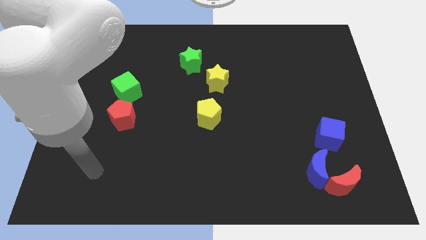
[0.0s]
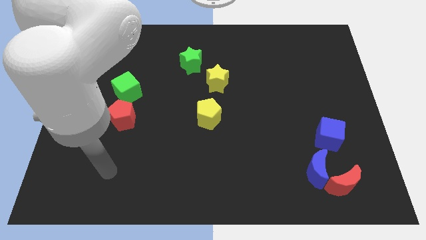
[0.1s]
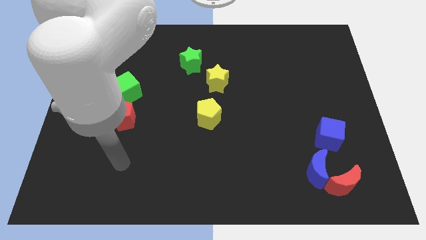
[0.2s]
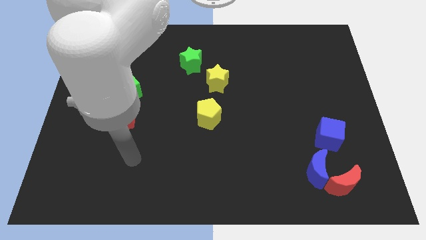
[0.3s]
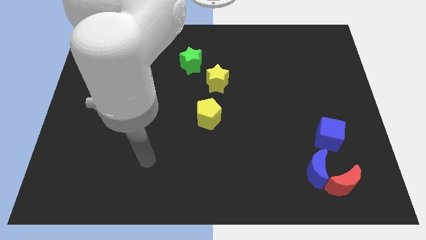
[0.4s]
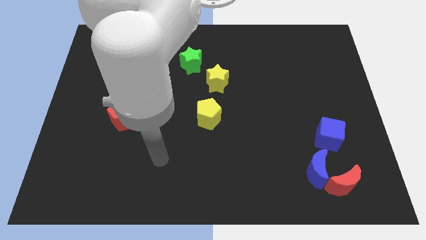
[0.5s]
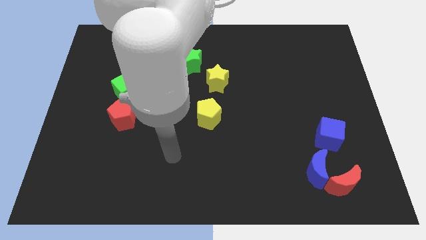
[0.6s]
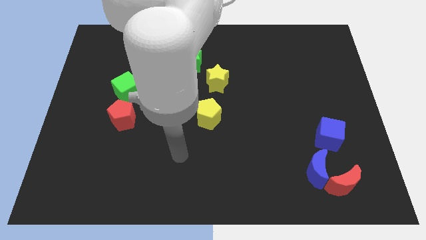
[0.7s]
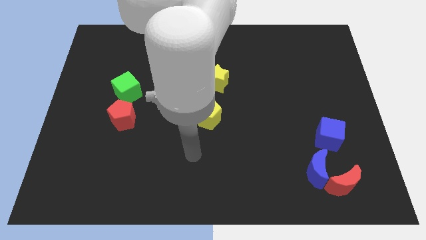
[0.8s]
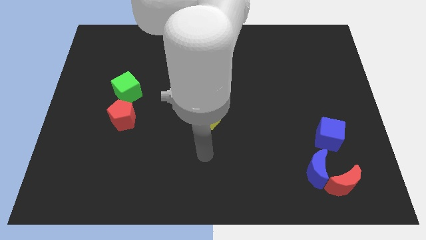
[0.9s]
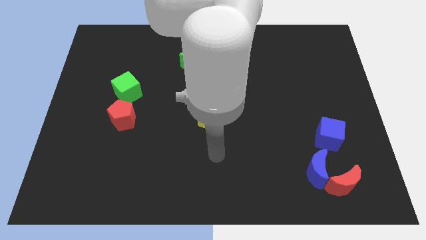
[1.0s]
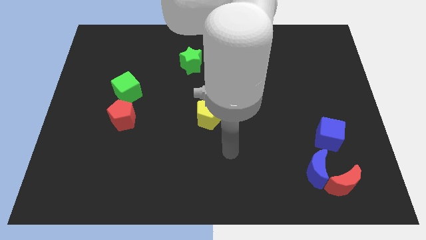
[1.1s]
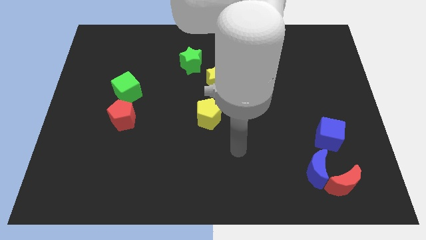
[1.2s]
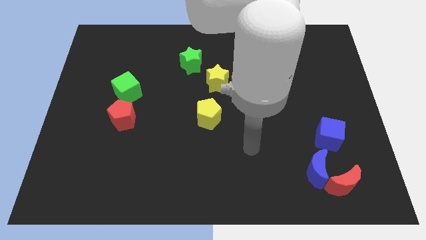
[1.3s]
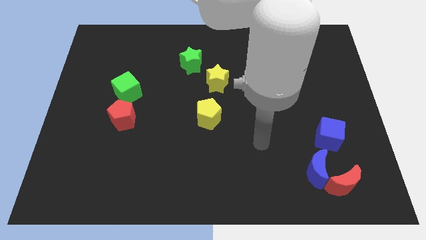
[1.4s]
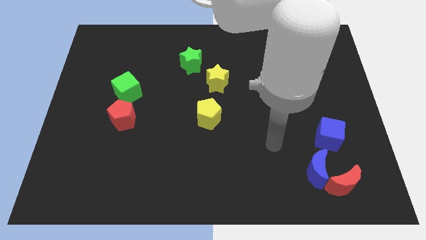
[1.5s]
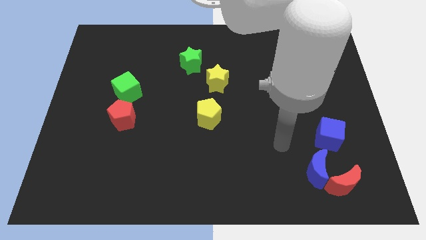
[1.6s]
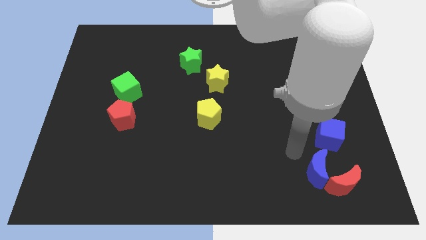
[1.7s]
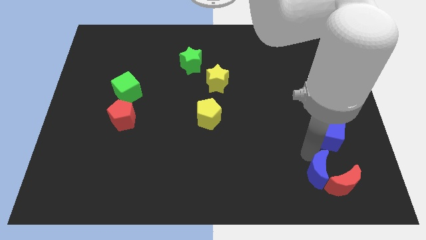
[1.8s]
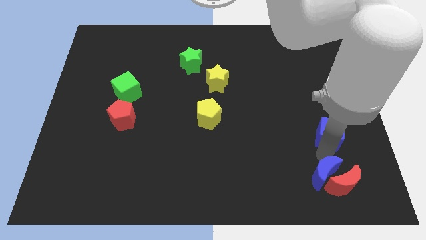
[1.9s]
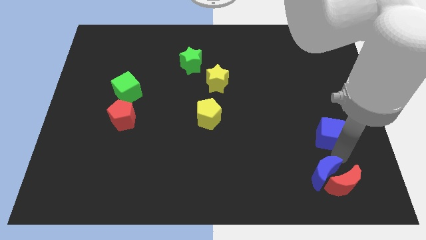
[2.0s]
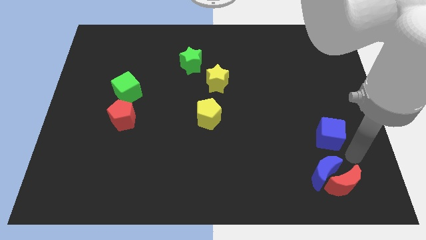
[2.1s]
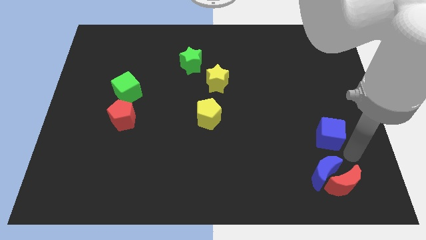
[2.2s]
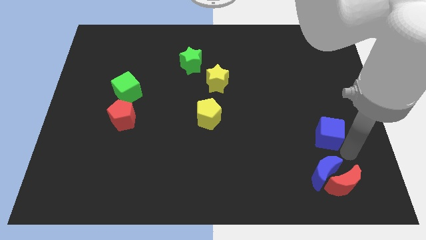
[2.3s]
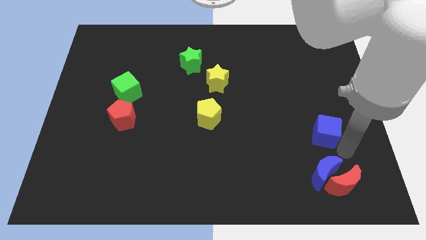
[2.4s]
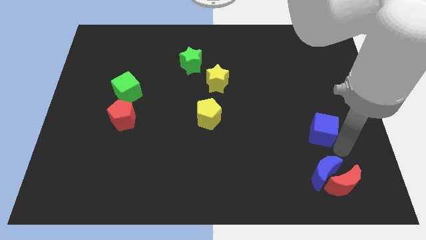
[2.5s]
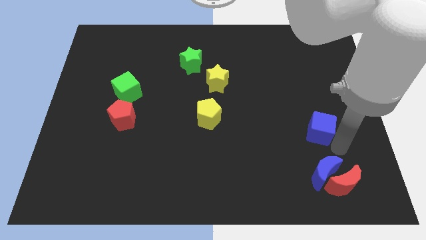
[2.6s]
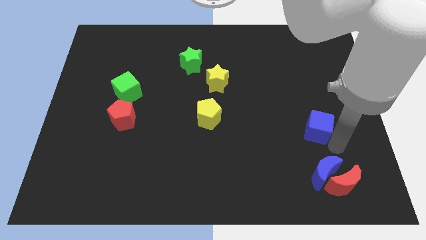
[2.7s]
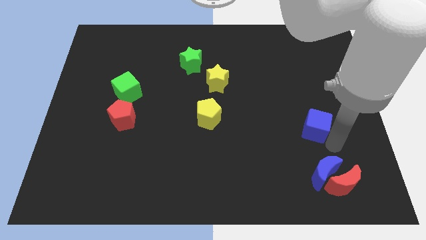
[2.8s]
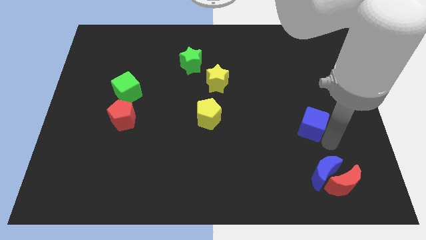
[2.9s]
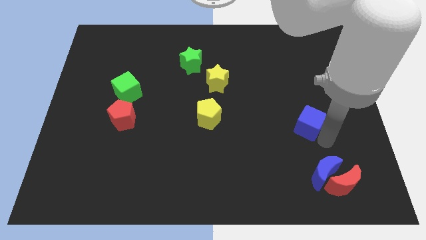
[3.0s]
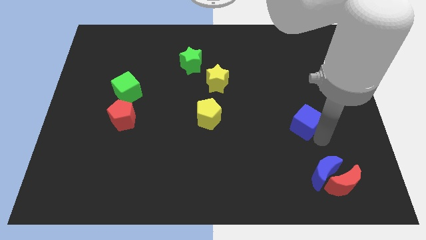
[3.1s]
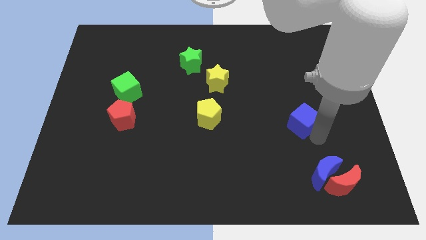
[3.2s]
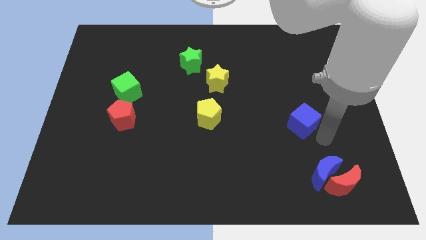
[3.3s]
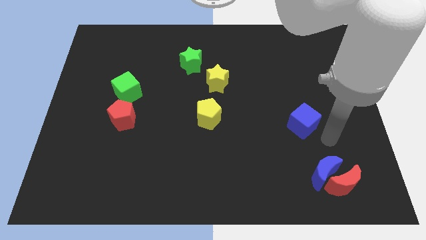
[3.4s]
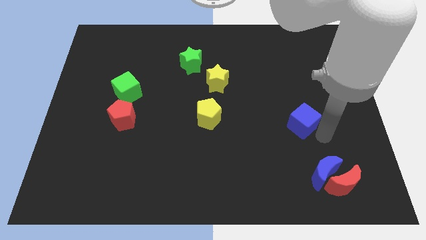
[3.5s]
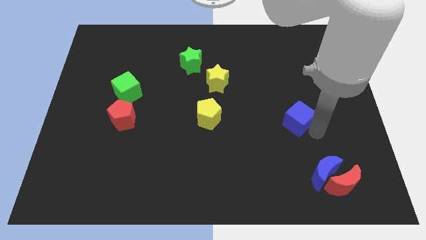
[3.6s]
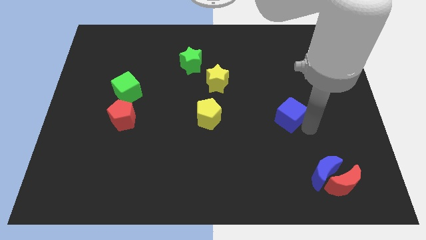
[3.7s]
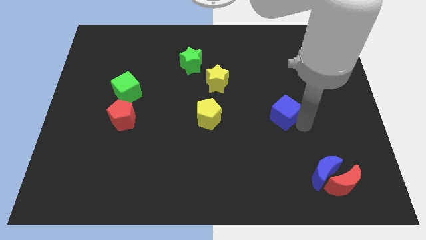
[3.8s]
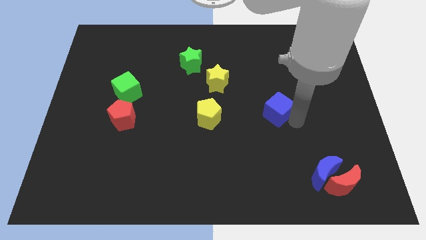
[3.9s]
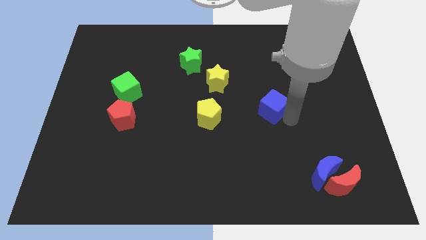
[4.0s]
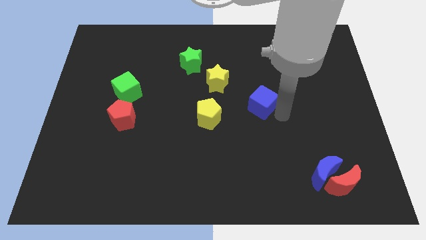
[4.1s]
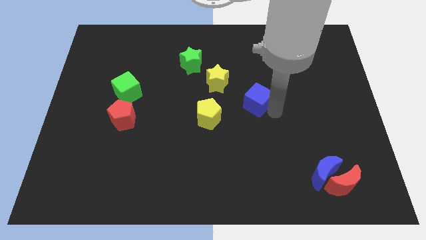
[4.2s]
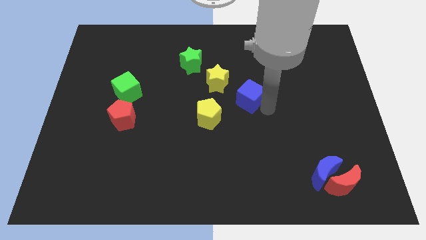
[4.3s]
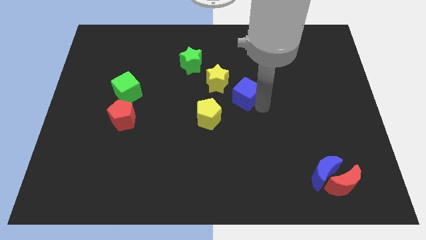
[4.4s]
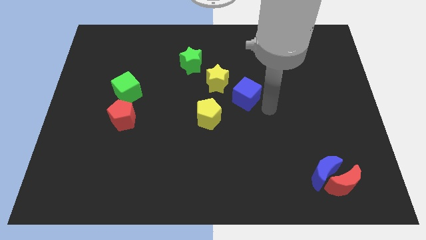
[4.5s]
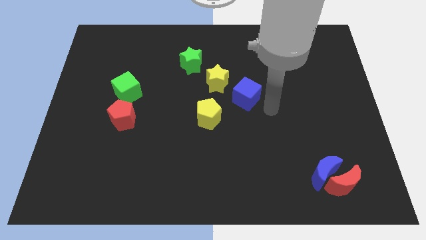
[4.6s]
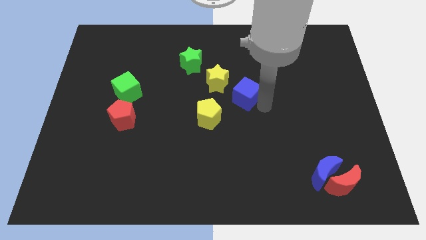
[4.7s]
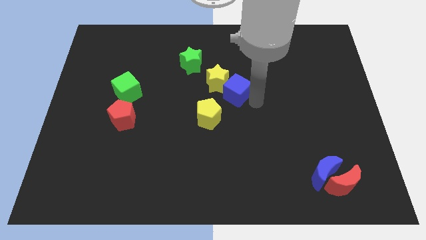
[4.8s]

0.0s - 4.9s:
push the blue cube towards the yellow star

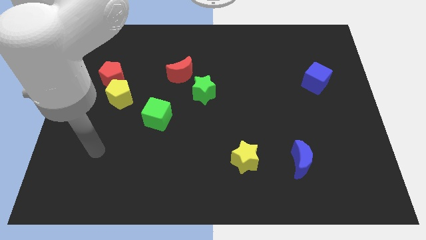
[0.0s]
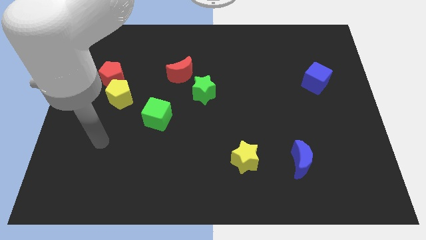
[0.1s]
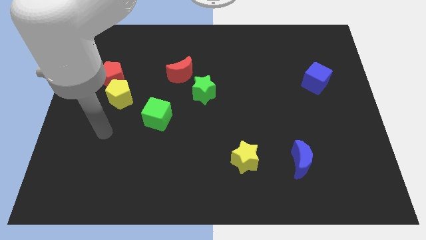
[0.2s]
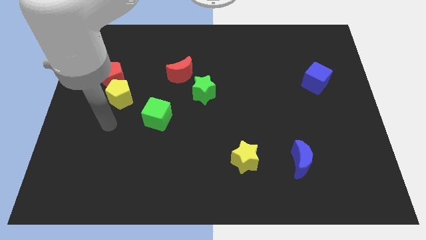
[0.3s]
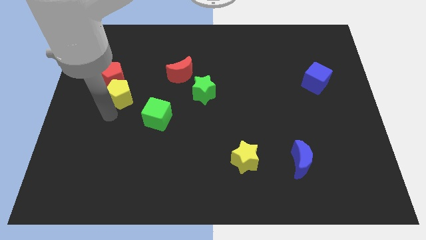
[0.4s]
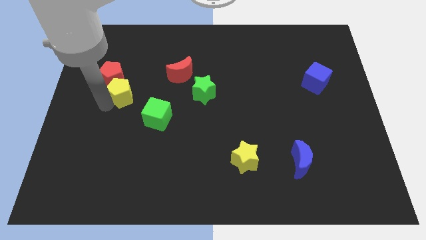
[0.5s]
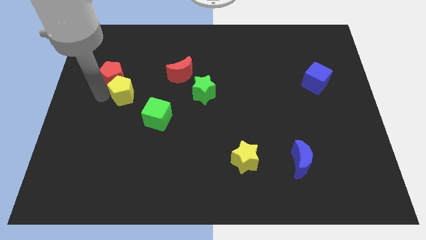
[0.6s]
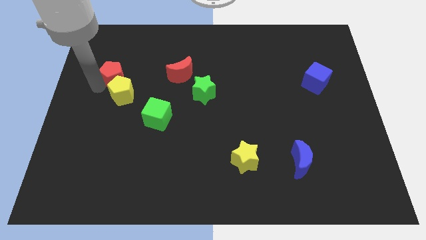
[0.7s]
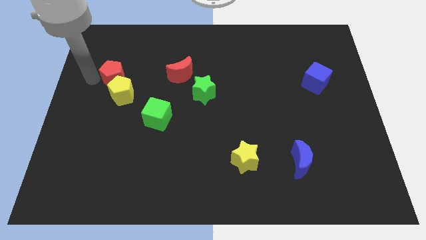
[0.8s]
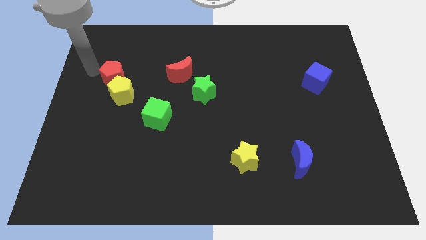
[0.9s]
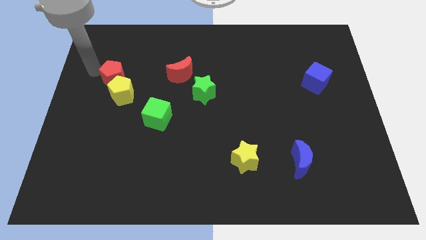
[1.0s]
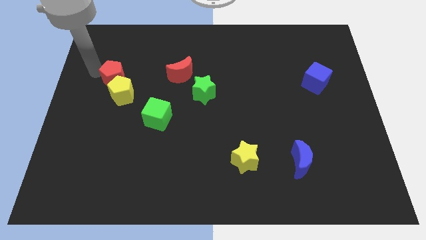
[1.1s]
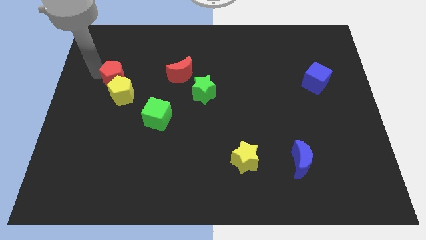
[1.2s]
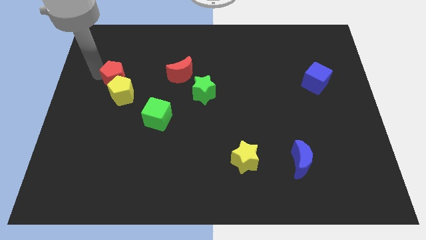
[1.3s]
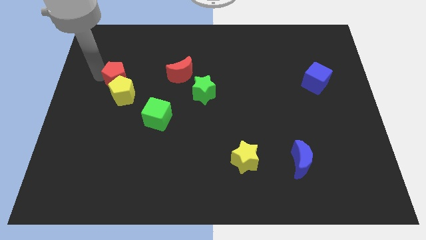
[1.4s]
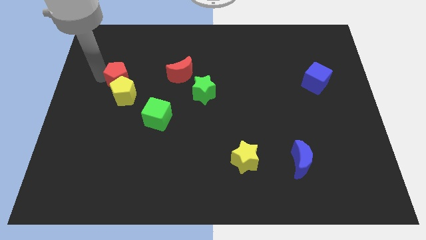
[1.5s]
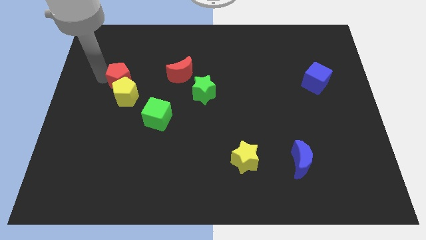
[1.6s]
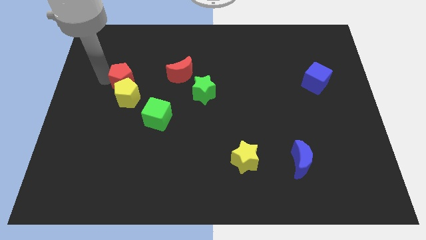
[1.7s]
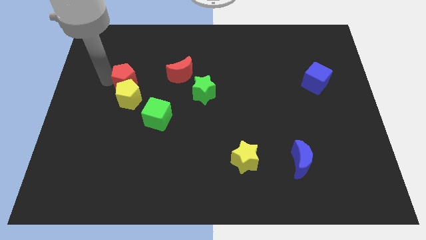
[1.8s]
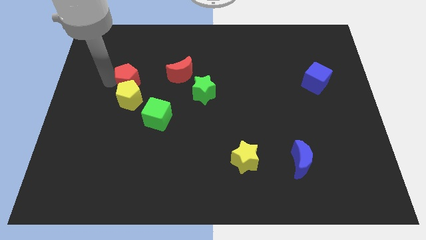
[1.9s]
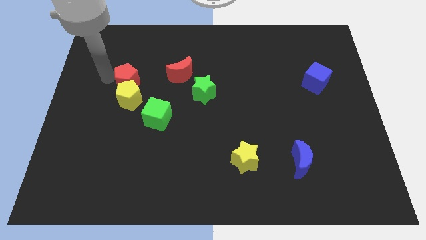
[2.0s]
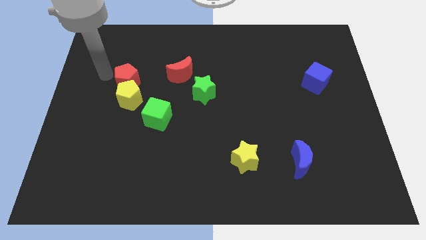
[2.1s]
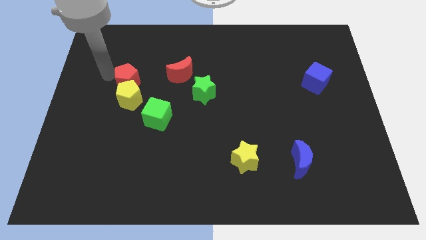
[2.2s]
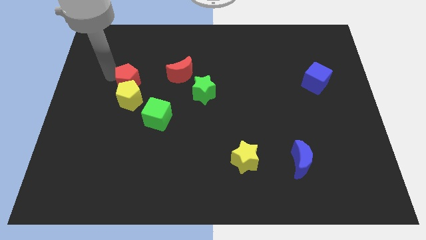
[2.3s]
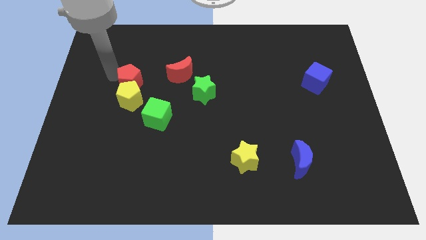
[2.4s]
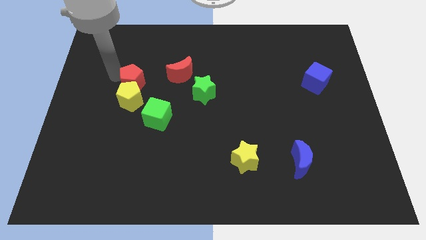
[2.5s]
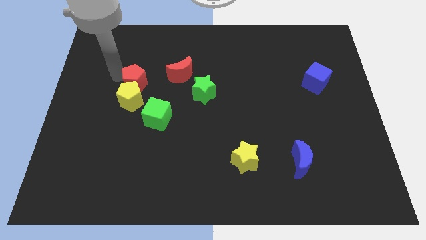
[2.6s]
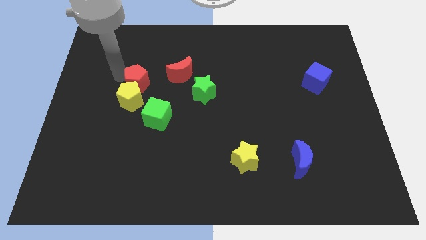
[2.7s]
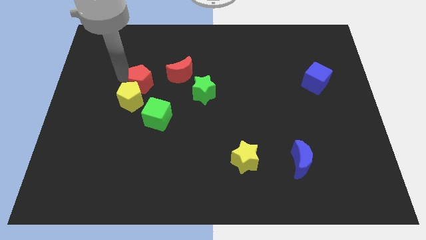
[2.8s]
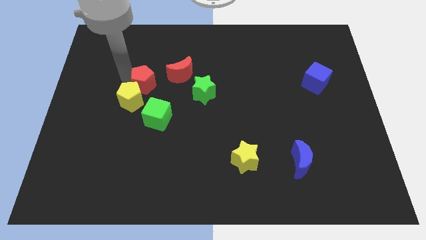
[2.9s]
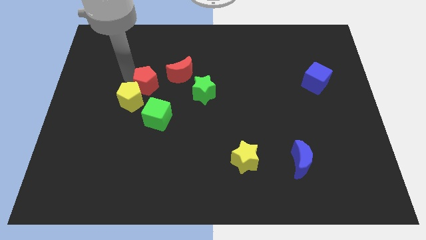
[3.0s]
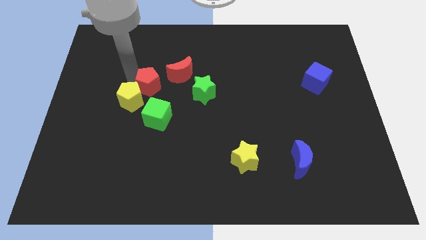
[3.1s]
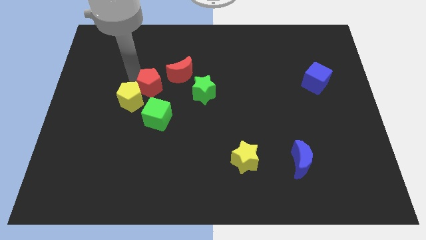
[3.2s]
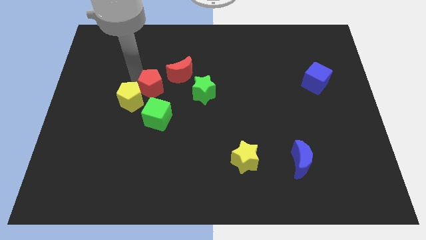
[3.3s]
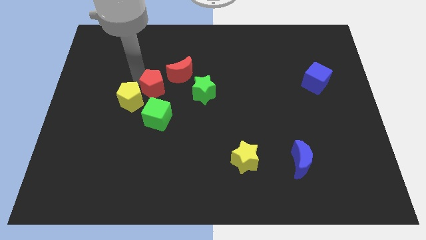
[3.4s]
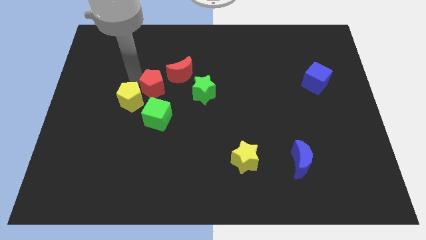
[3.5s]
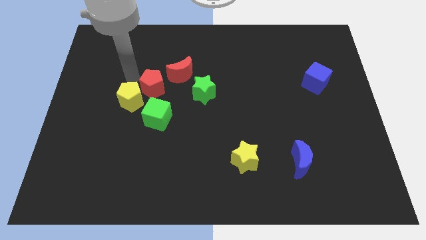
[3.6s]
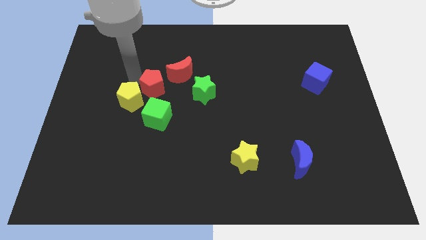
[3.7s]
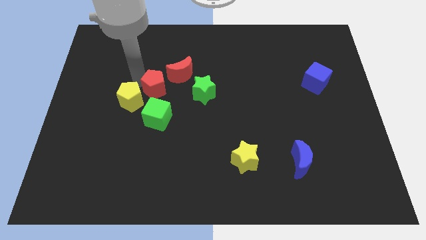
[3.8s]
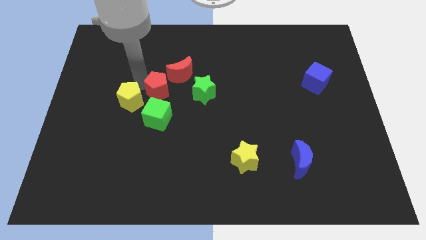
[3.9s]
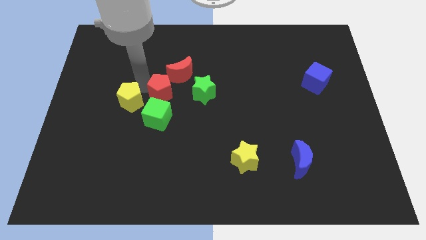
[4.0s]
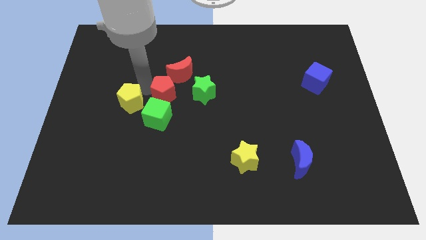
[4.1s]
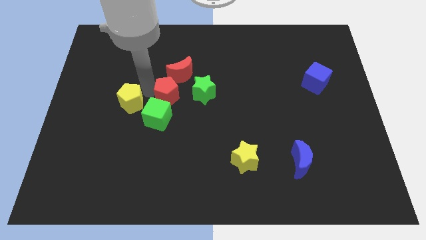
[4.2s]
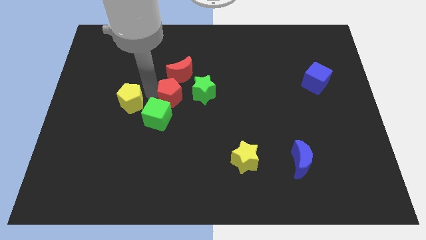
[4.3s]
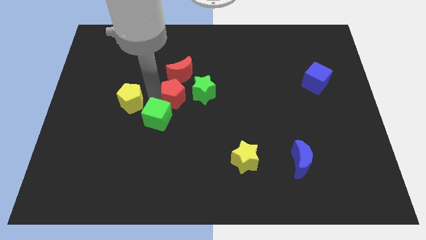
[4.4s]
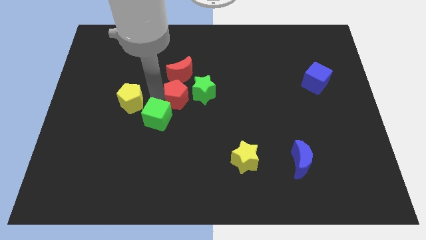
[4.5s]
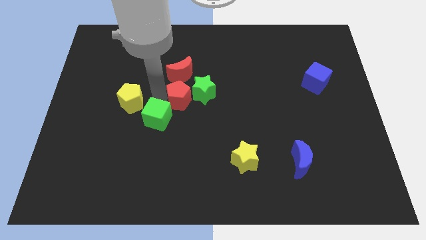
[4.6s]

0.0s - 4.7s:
move the red pentagon towards the green star
